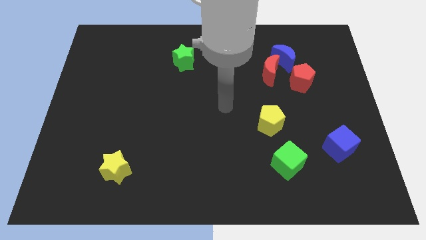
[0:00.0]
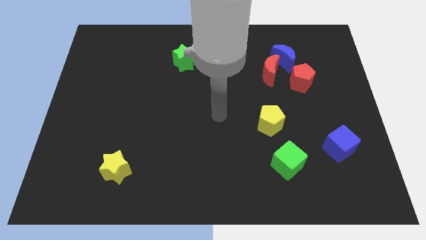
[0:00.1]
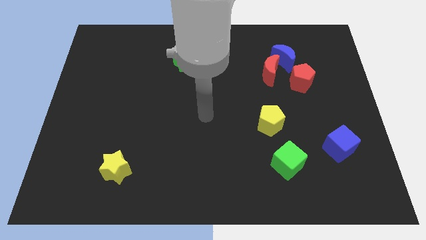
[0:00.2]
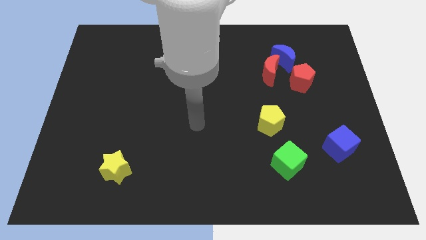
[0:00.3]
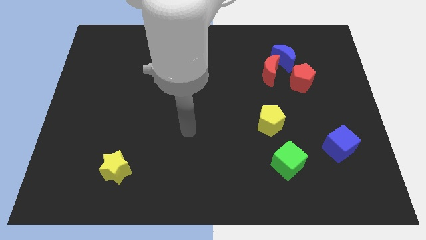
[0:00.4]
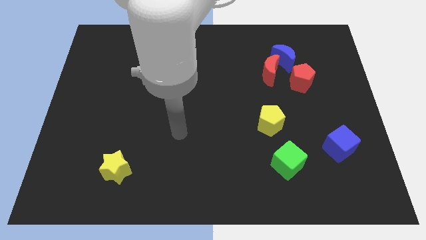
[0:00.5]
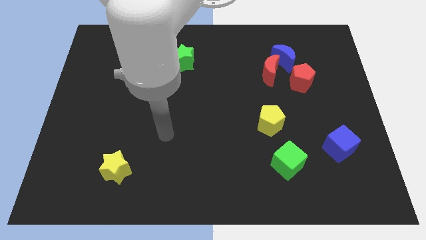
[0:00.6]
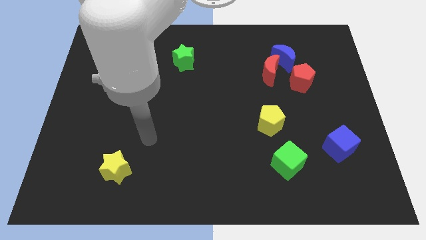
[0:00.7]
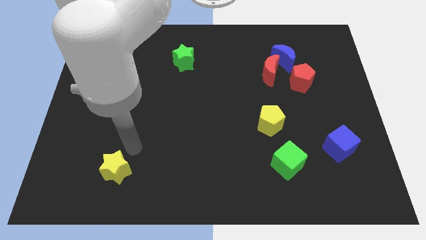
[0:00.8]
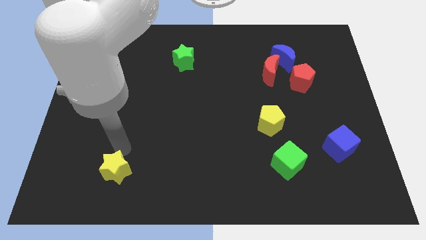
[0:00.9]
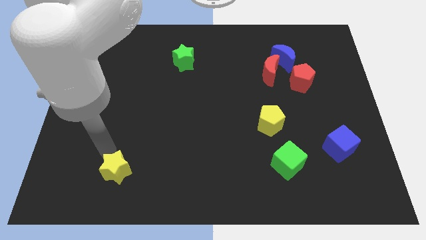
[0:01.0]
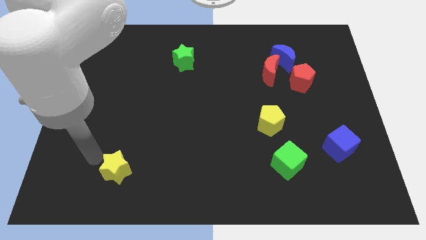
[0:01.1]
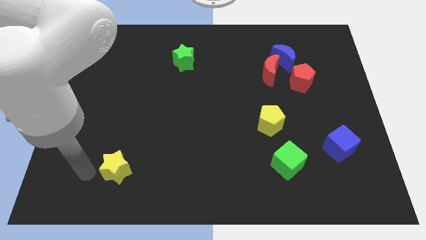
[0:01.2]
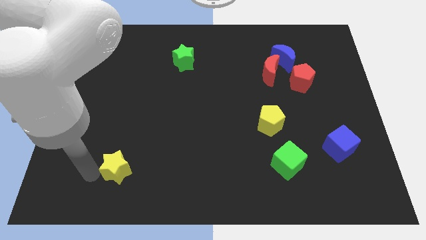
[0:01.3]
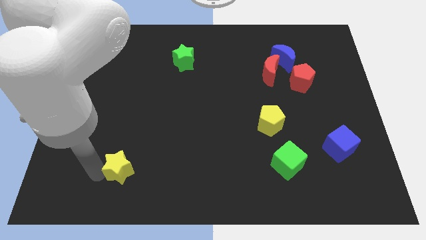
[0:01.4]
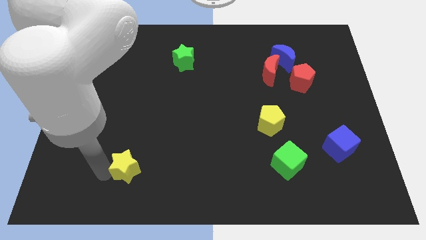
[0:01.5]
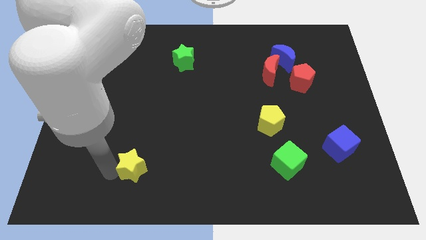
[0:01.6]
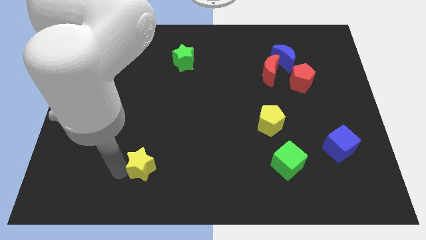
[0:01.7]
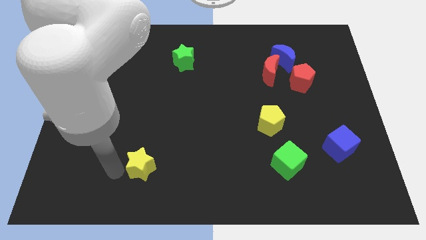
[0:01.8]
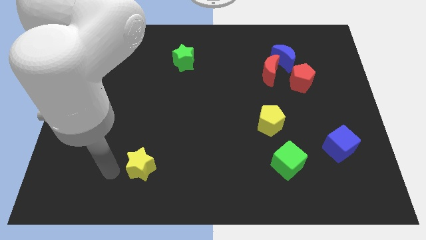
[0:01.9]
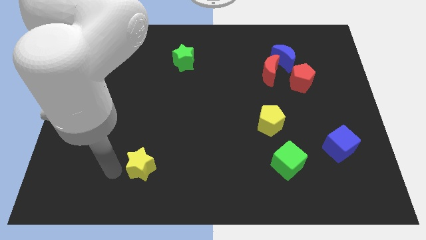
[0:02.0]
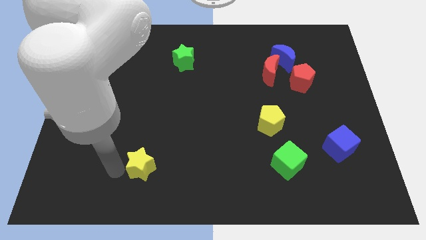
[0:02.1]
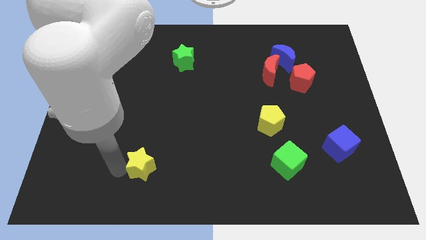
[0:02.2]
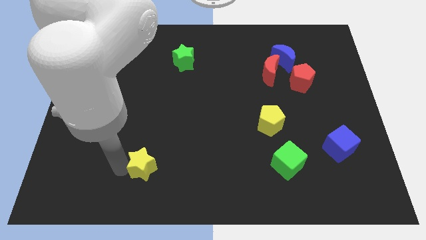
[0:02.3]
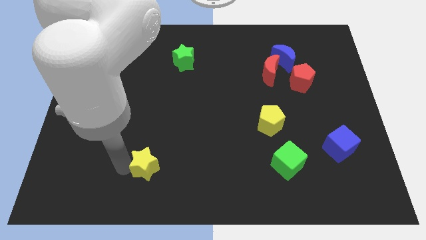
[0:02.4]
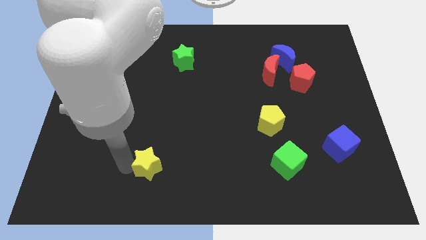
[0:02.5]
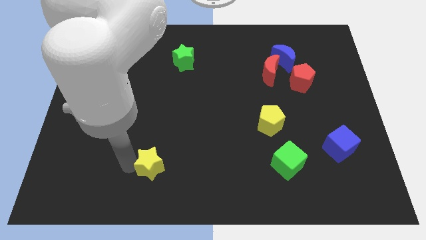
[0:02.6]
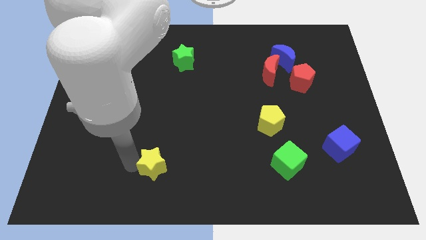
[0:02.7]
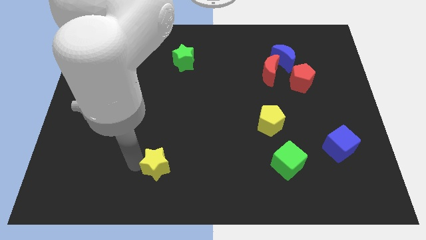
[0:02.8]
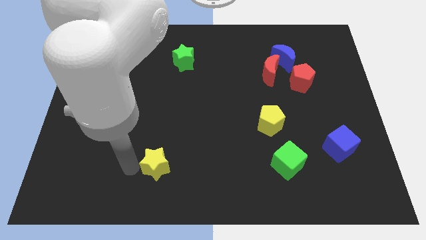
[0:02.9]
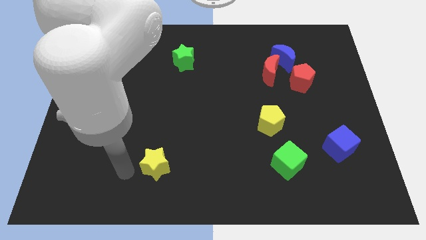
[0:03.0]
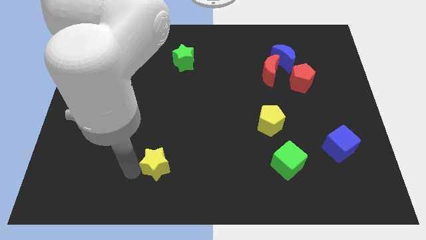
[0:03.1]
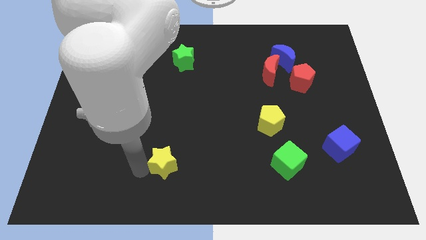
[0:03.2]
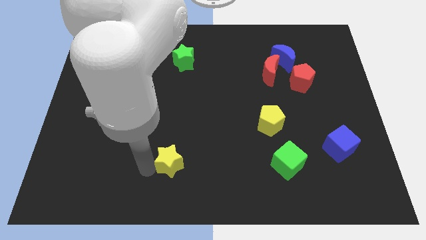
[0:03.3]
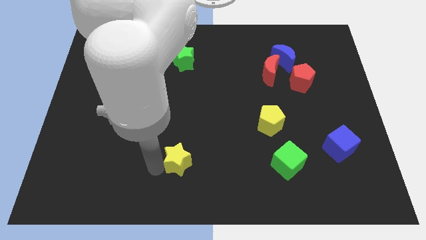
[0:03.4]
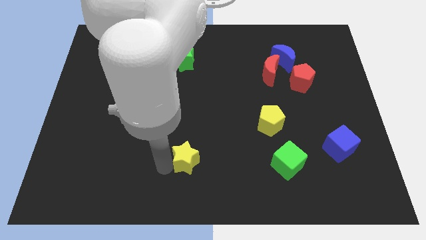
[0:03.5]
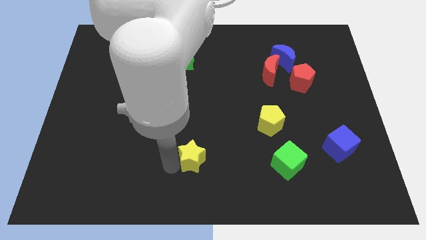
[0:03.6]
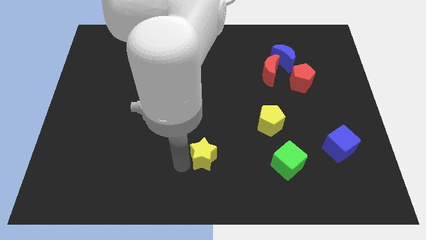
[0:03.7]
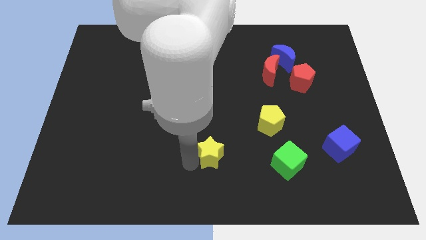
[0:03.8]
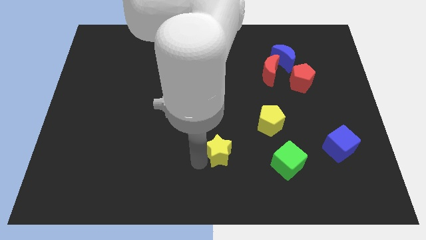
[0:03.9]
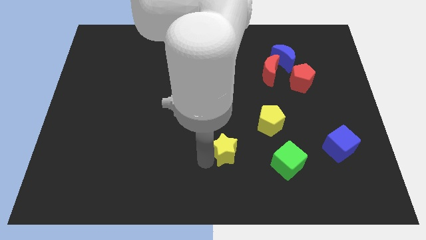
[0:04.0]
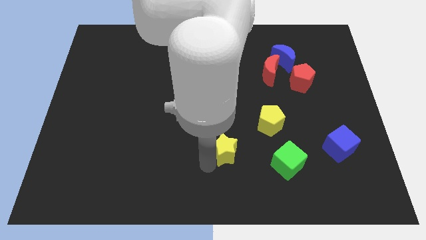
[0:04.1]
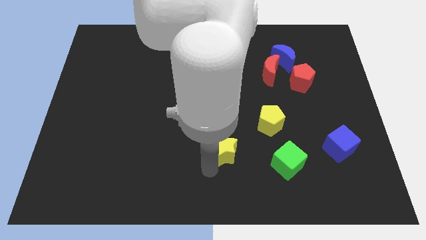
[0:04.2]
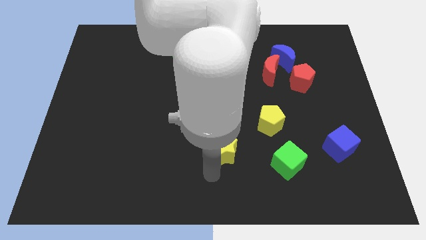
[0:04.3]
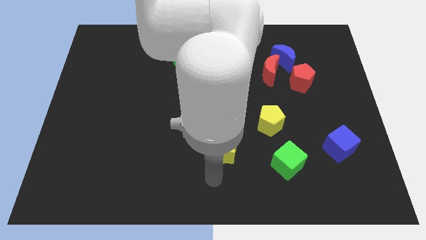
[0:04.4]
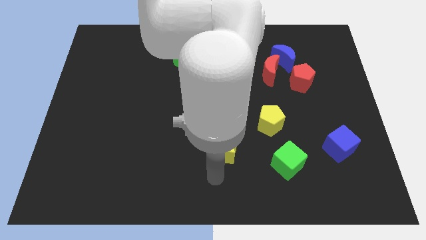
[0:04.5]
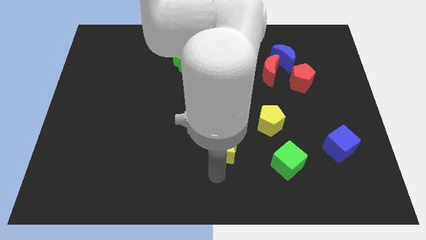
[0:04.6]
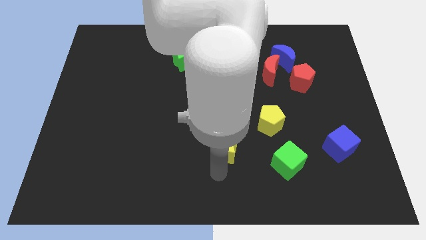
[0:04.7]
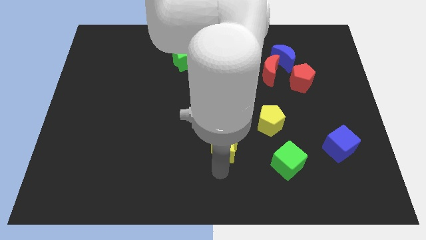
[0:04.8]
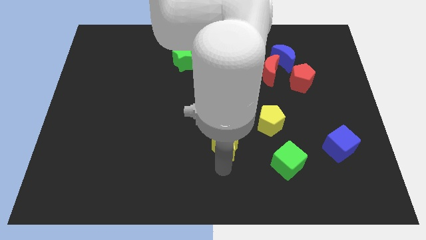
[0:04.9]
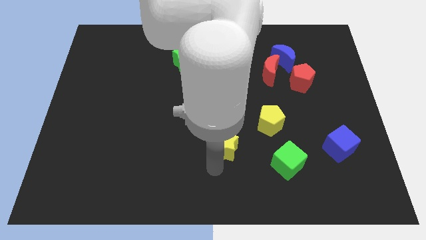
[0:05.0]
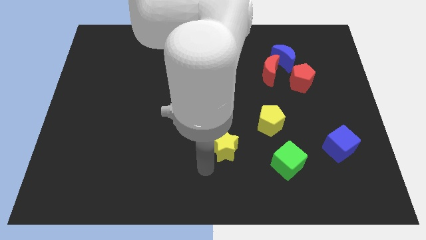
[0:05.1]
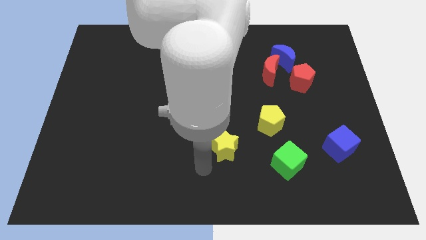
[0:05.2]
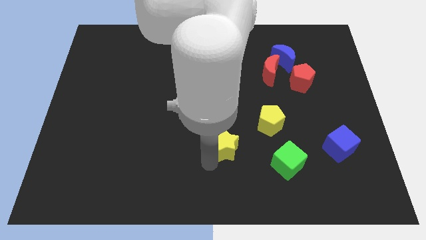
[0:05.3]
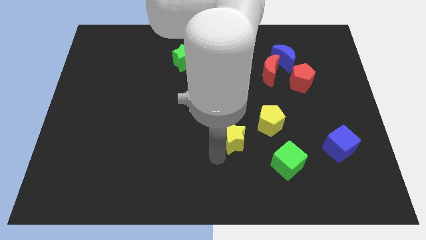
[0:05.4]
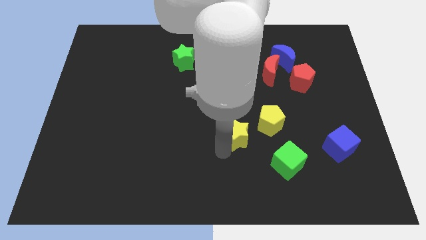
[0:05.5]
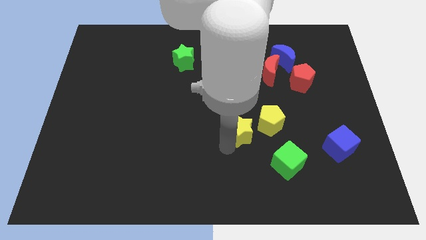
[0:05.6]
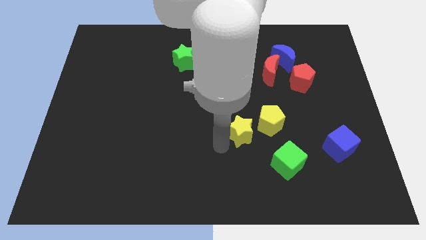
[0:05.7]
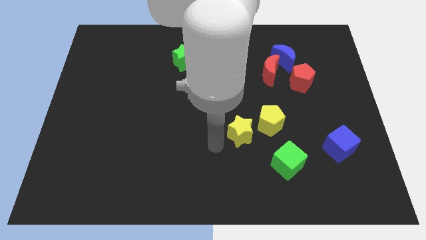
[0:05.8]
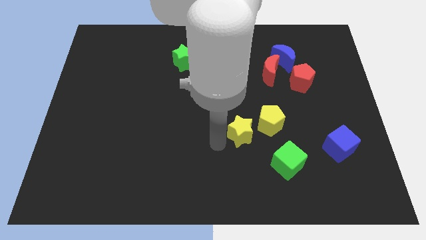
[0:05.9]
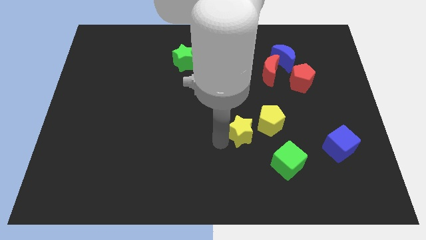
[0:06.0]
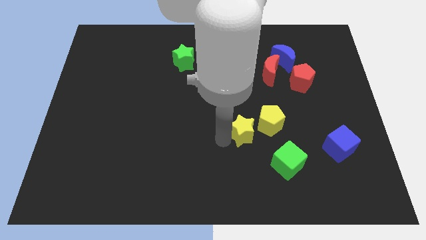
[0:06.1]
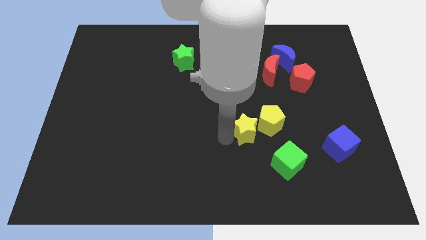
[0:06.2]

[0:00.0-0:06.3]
move the yellow star next to the yellow pentagon

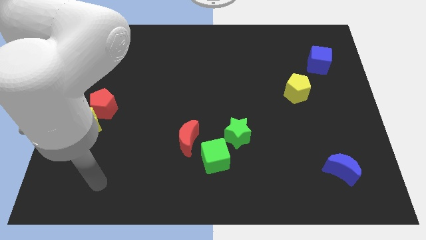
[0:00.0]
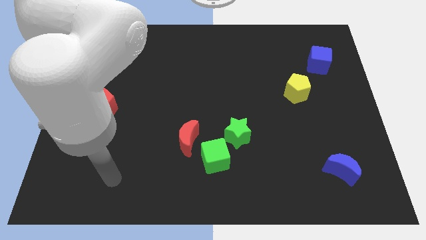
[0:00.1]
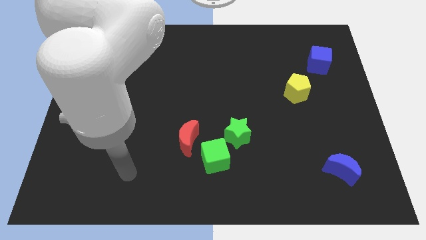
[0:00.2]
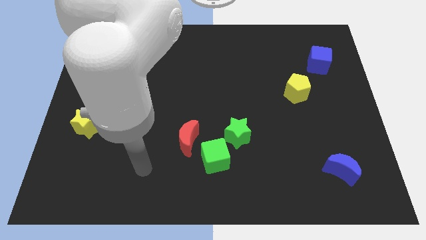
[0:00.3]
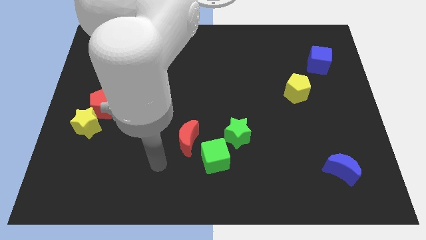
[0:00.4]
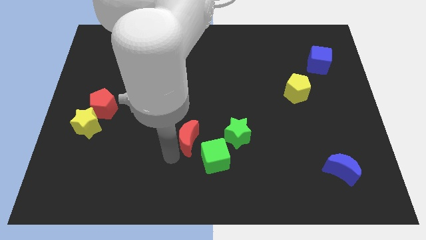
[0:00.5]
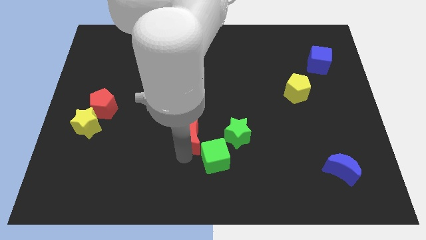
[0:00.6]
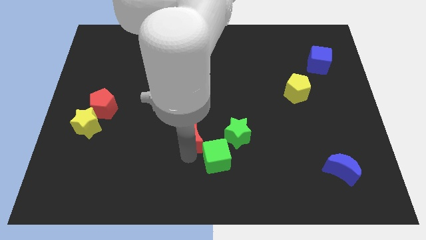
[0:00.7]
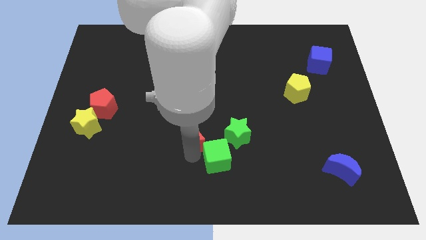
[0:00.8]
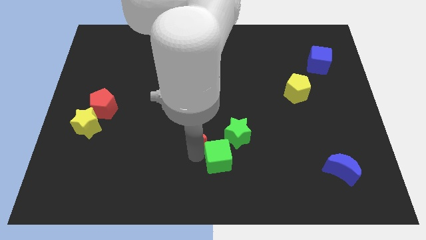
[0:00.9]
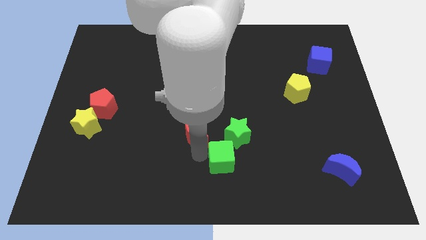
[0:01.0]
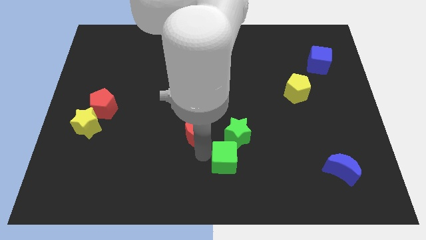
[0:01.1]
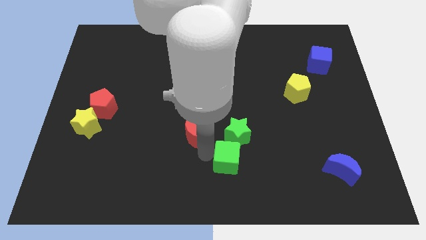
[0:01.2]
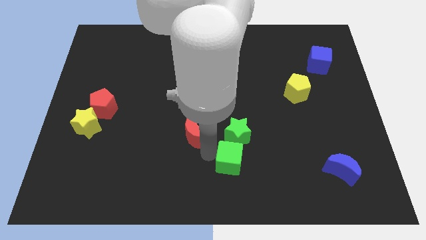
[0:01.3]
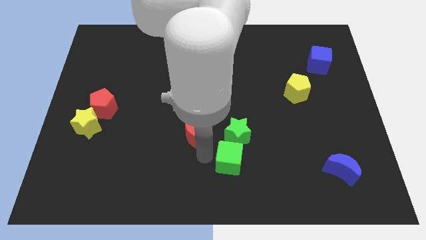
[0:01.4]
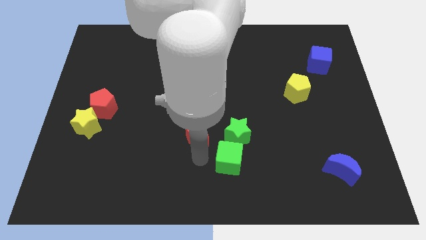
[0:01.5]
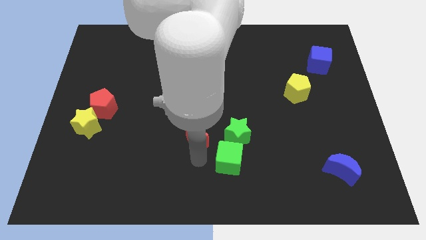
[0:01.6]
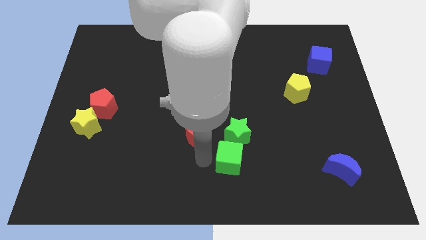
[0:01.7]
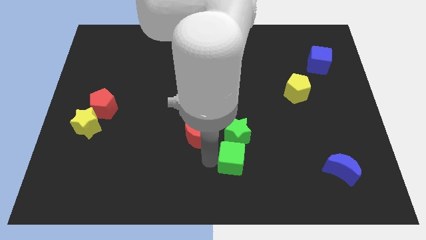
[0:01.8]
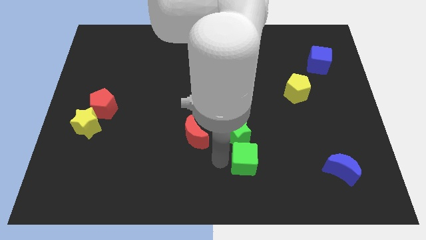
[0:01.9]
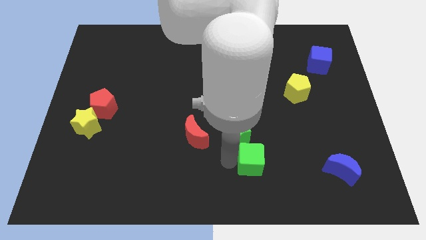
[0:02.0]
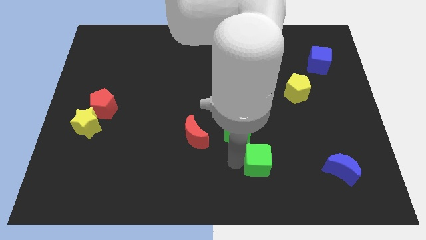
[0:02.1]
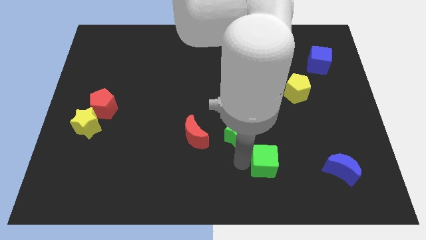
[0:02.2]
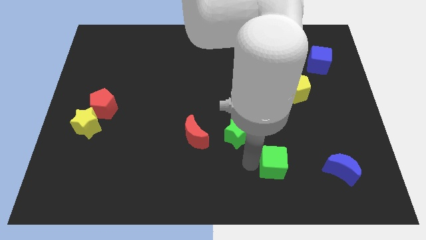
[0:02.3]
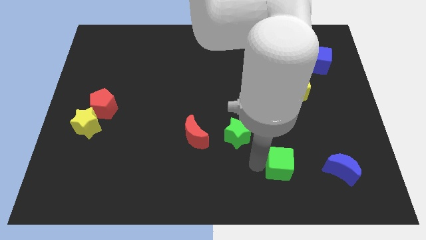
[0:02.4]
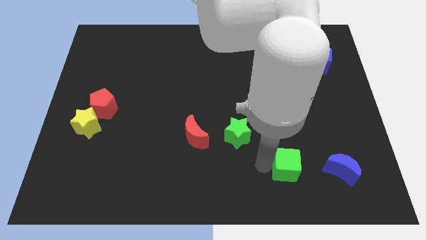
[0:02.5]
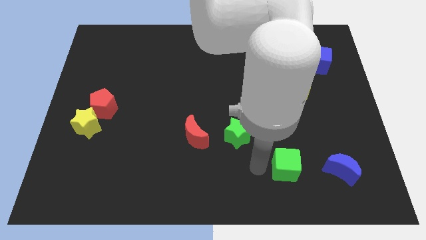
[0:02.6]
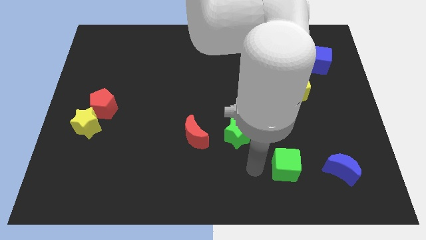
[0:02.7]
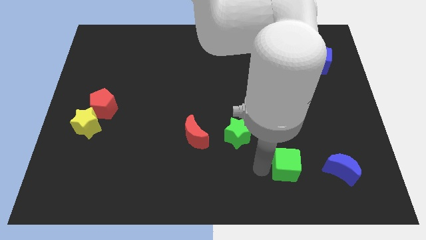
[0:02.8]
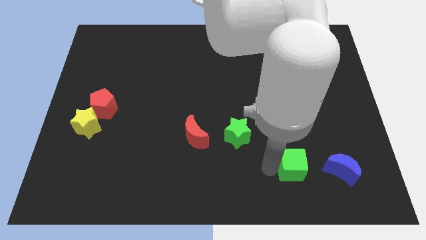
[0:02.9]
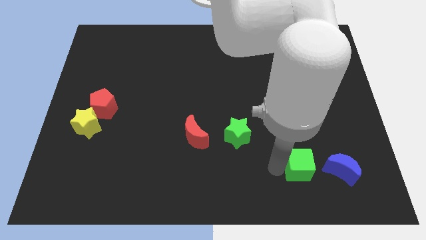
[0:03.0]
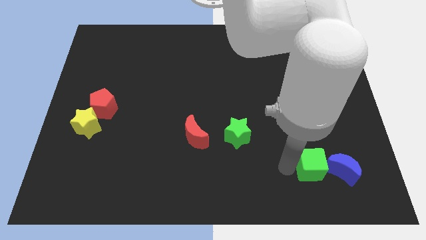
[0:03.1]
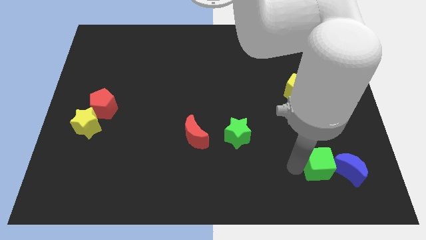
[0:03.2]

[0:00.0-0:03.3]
slide the green cube next to the blue moon
